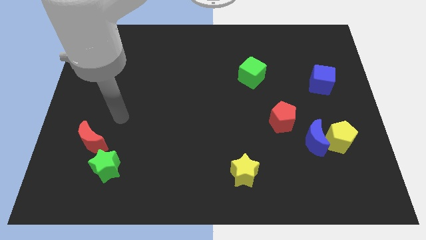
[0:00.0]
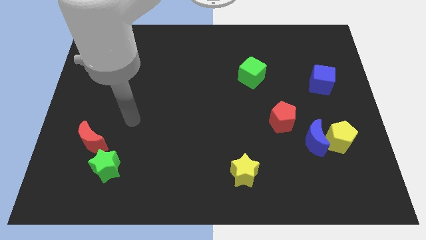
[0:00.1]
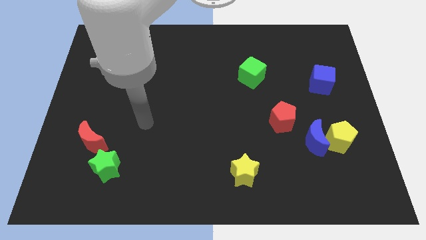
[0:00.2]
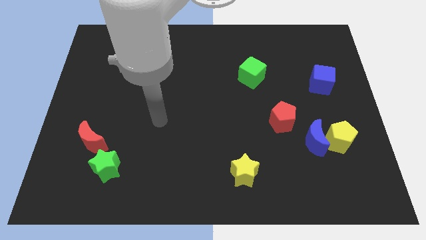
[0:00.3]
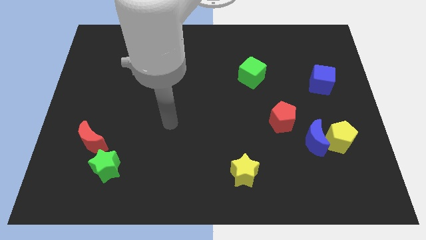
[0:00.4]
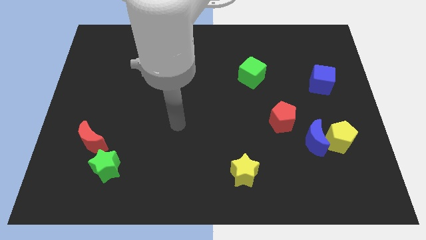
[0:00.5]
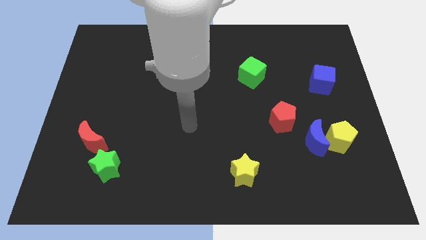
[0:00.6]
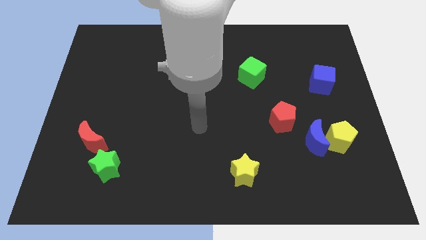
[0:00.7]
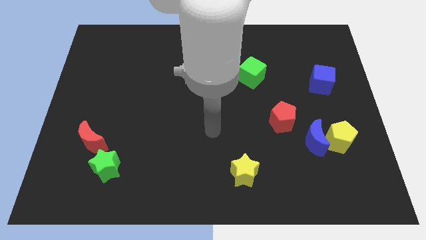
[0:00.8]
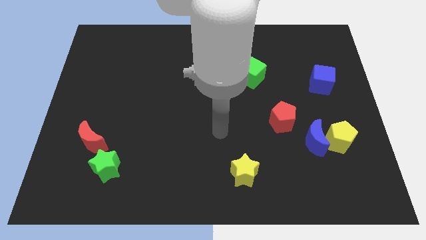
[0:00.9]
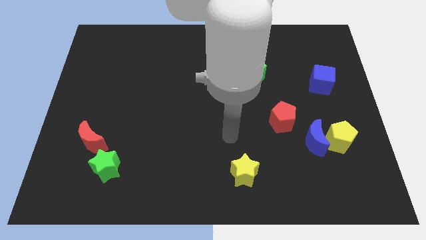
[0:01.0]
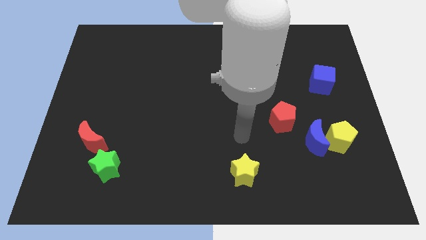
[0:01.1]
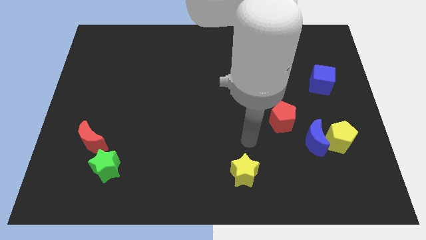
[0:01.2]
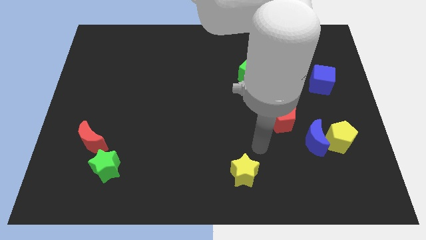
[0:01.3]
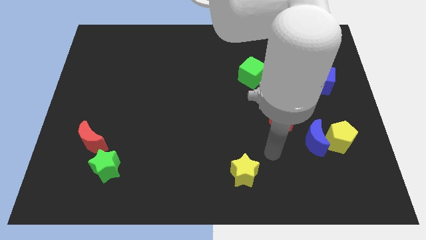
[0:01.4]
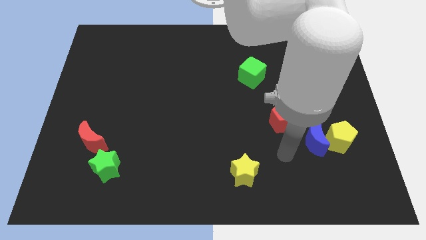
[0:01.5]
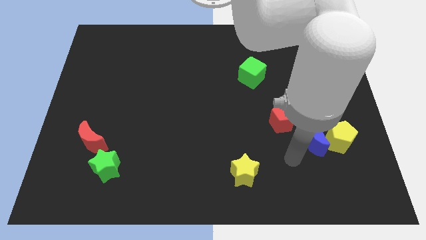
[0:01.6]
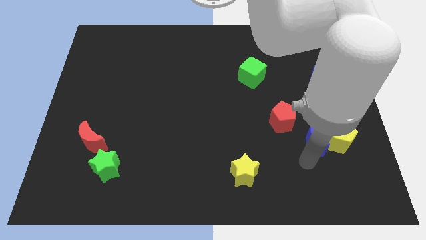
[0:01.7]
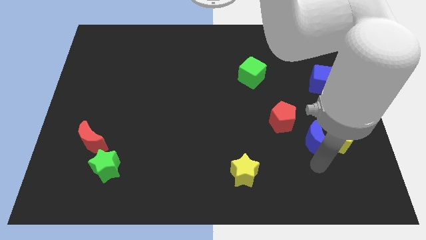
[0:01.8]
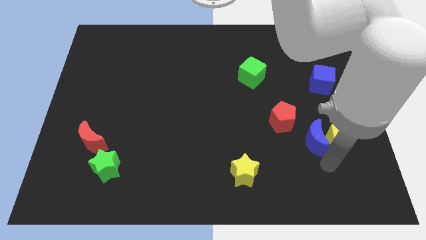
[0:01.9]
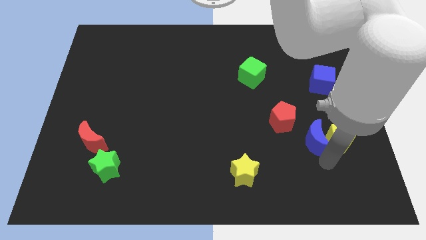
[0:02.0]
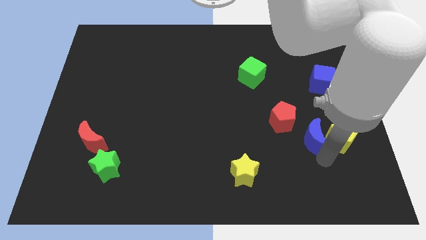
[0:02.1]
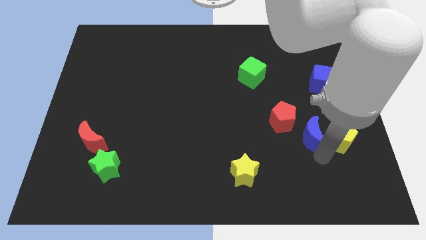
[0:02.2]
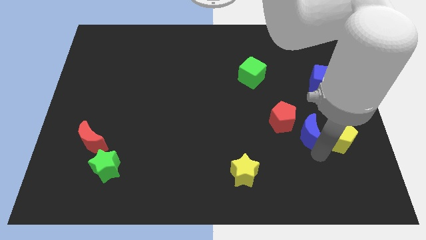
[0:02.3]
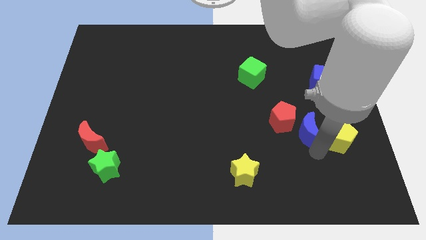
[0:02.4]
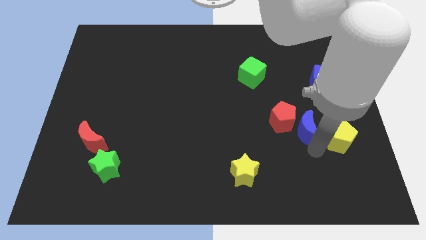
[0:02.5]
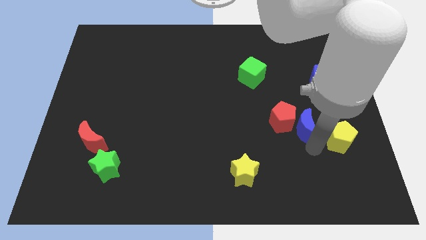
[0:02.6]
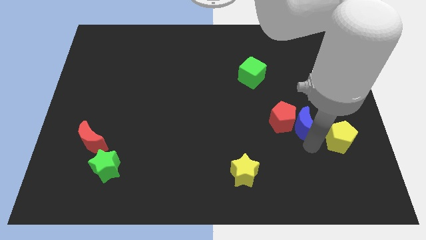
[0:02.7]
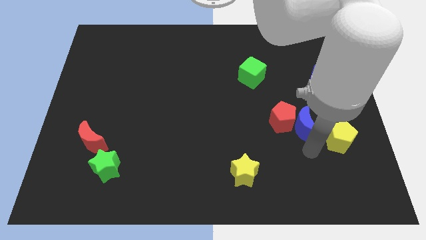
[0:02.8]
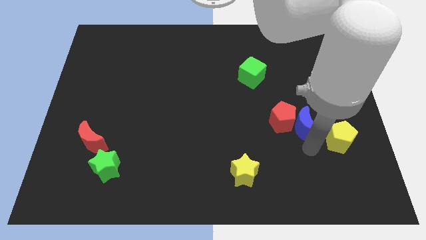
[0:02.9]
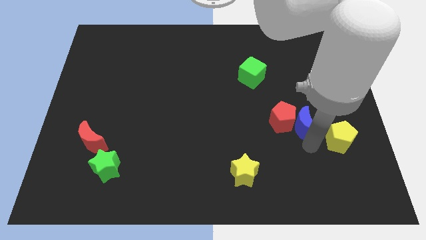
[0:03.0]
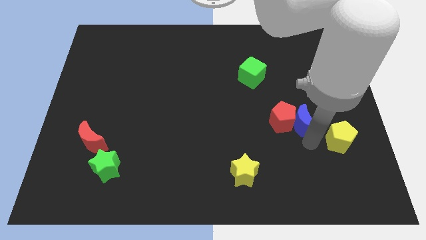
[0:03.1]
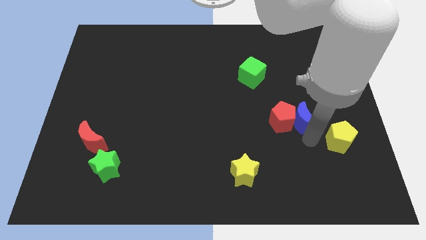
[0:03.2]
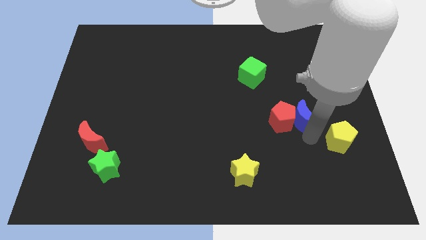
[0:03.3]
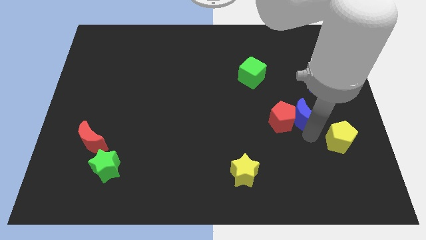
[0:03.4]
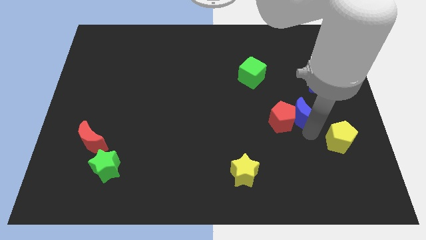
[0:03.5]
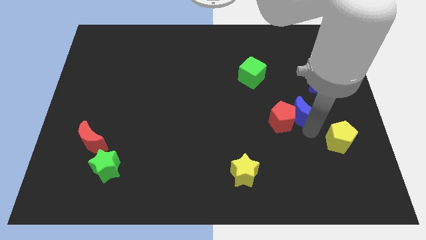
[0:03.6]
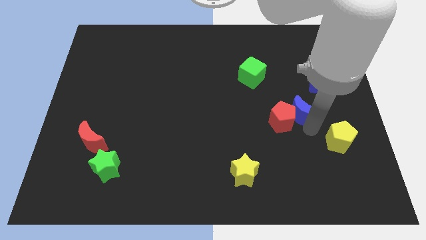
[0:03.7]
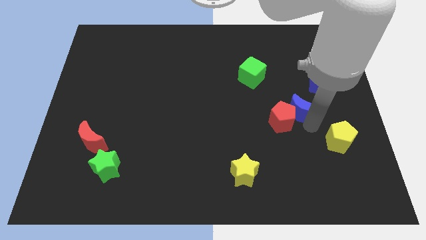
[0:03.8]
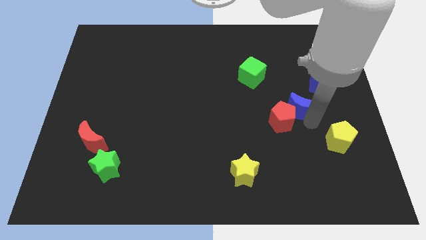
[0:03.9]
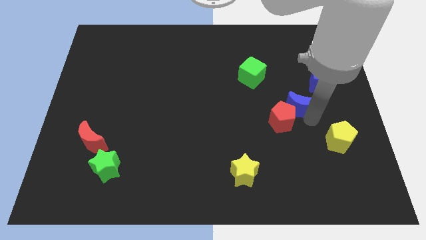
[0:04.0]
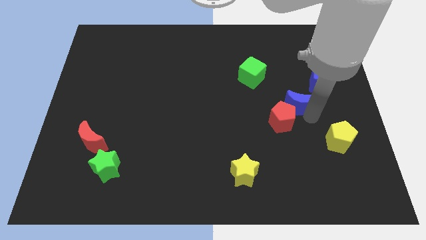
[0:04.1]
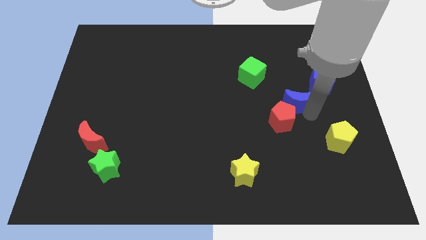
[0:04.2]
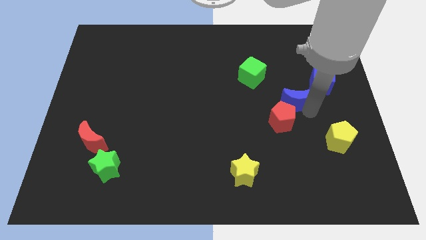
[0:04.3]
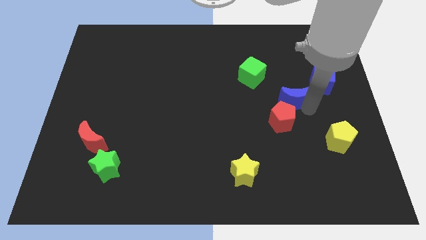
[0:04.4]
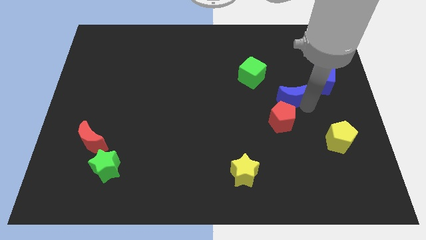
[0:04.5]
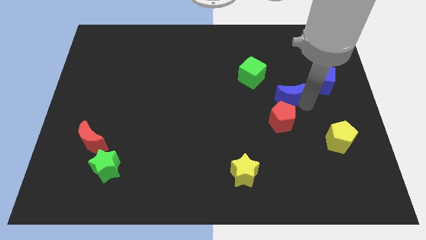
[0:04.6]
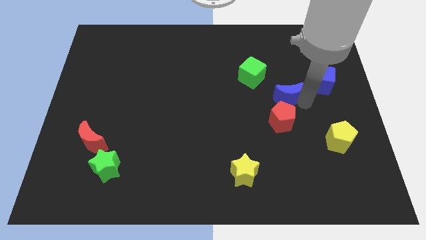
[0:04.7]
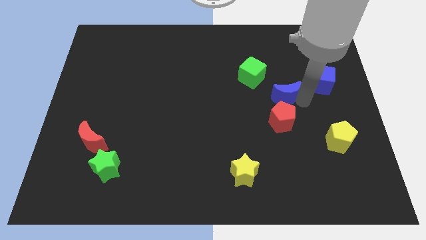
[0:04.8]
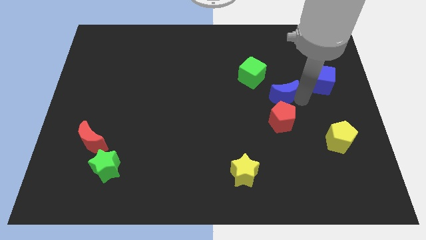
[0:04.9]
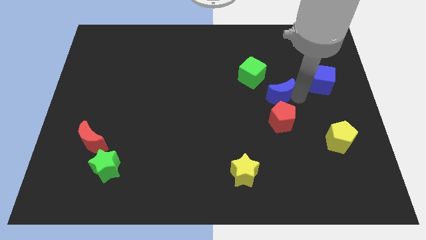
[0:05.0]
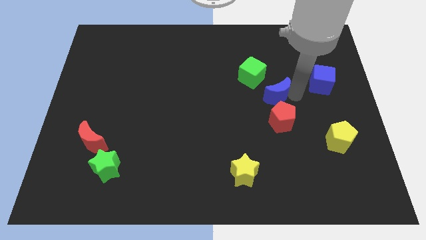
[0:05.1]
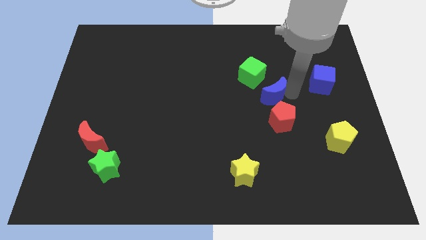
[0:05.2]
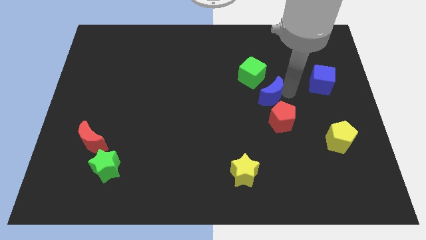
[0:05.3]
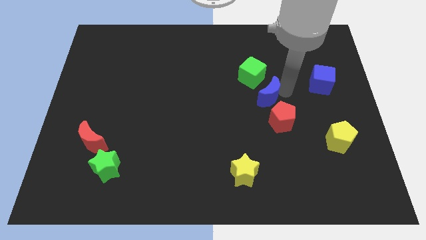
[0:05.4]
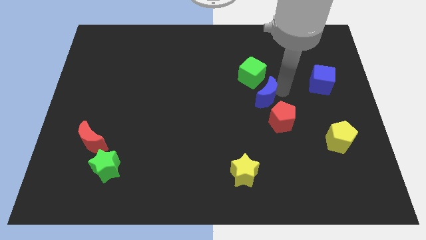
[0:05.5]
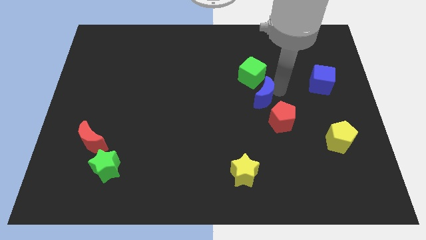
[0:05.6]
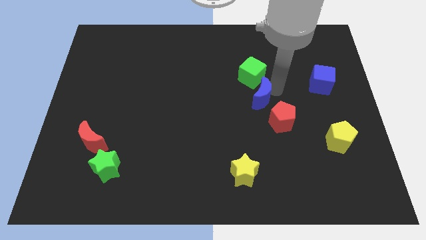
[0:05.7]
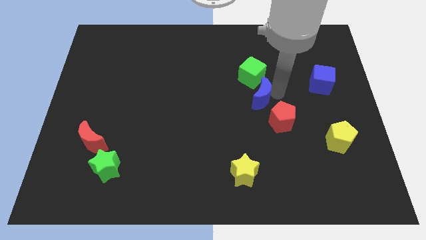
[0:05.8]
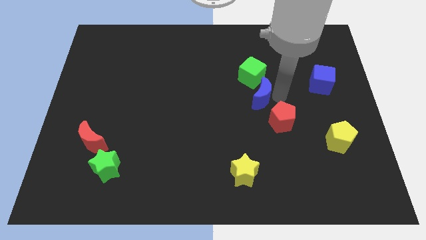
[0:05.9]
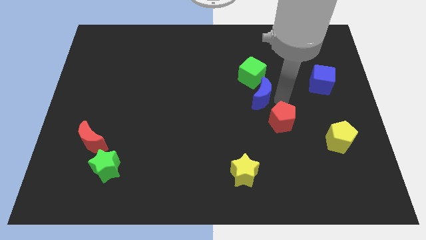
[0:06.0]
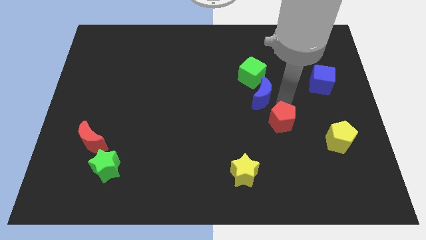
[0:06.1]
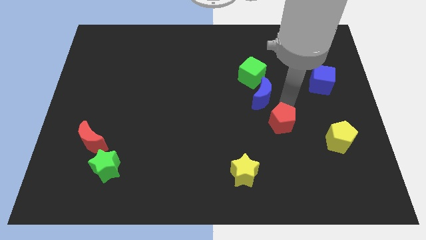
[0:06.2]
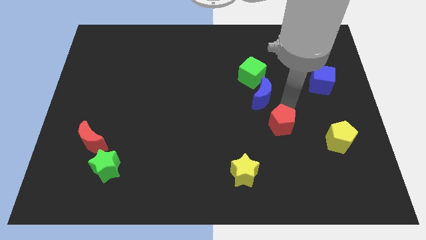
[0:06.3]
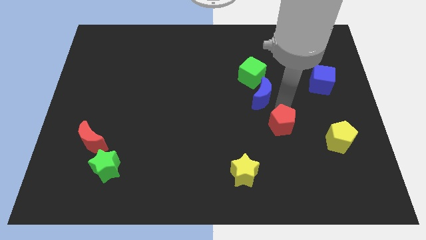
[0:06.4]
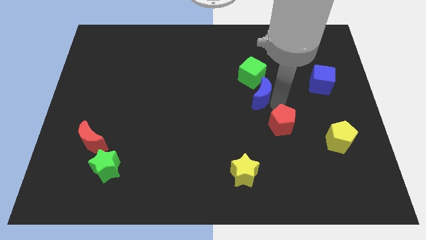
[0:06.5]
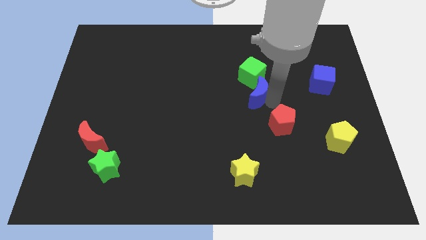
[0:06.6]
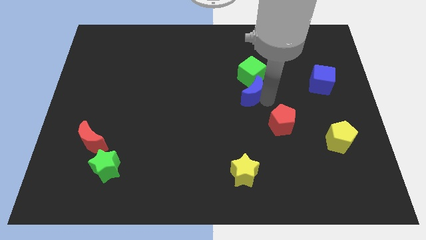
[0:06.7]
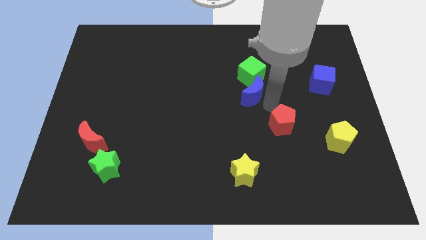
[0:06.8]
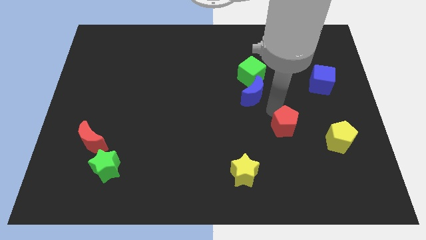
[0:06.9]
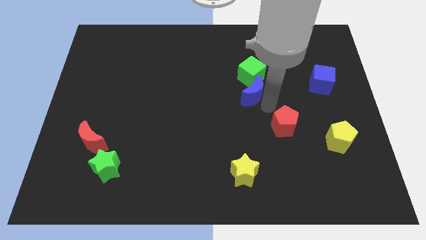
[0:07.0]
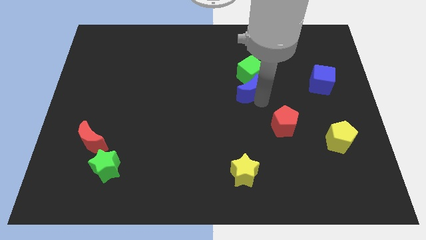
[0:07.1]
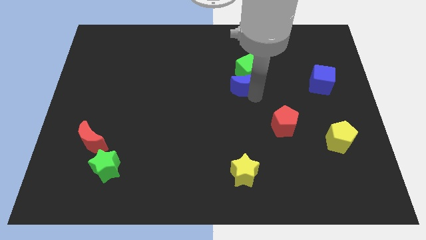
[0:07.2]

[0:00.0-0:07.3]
push the blue moon upwards and left

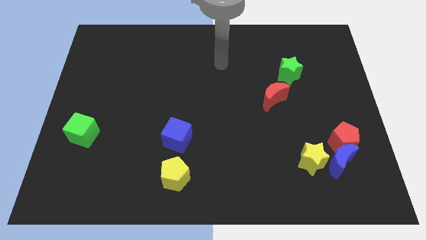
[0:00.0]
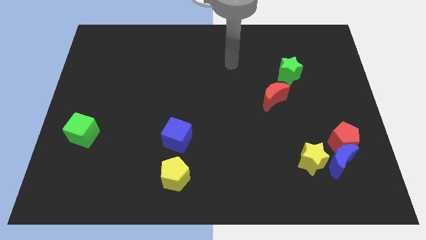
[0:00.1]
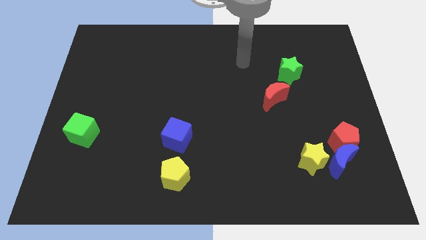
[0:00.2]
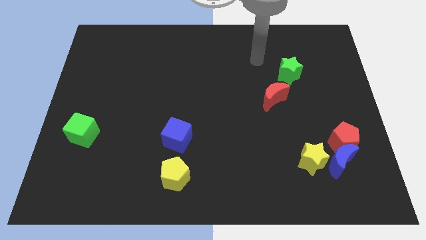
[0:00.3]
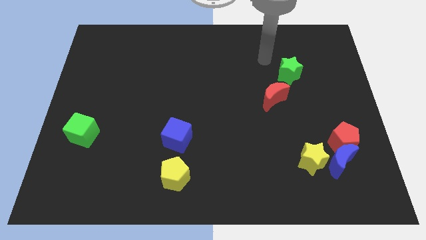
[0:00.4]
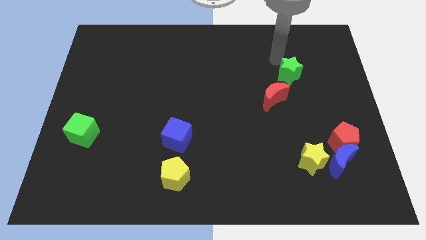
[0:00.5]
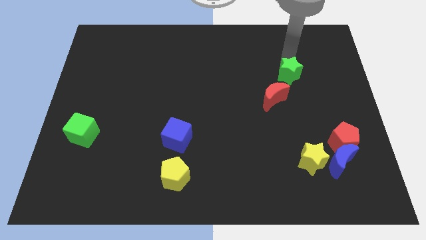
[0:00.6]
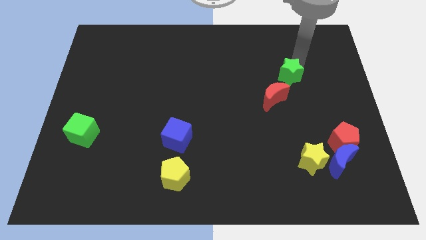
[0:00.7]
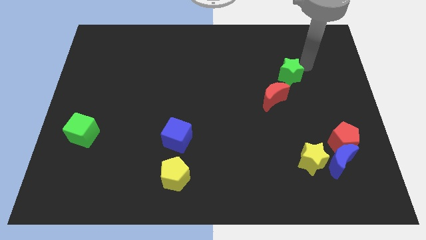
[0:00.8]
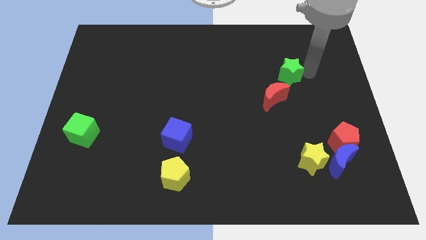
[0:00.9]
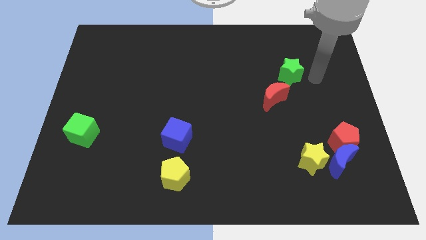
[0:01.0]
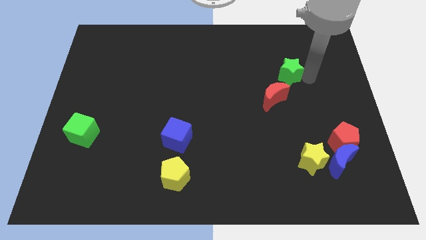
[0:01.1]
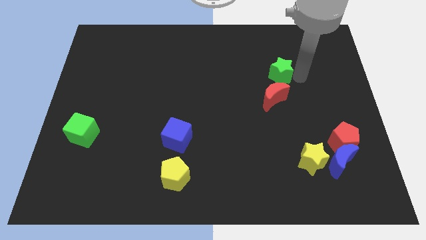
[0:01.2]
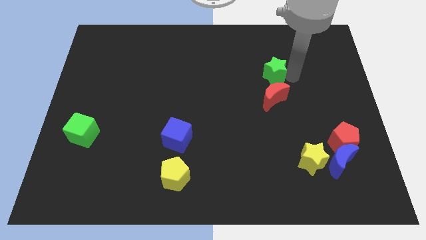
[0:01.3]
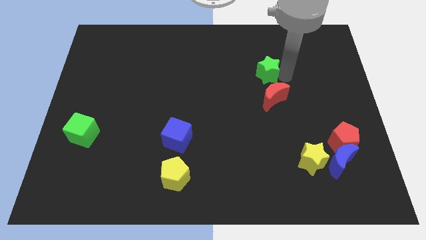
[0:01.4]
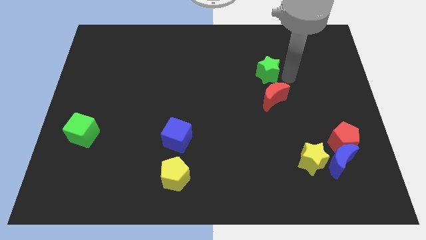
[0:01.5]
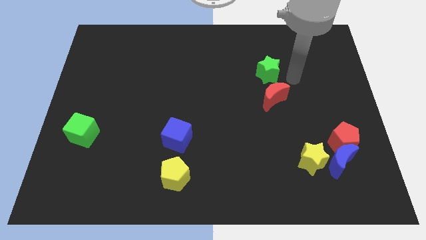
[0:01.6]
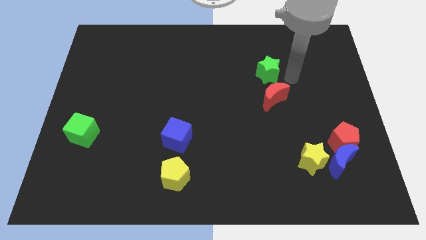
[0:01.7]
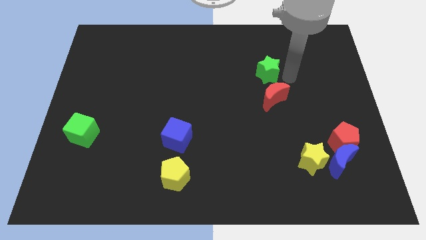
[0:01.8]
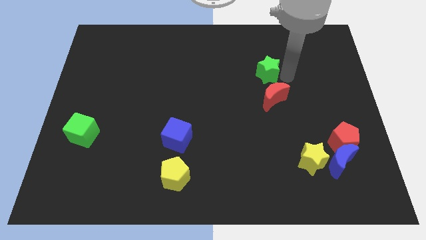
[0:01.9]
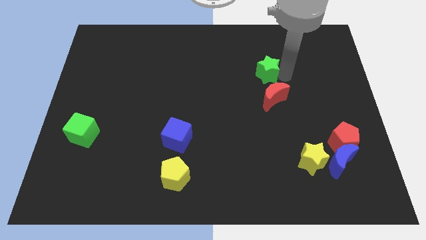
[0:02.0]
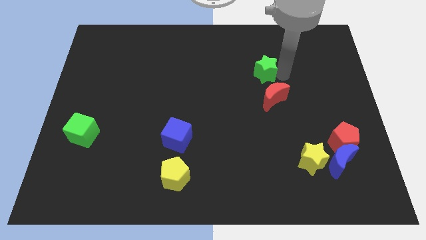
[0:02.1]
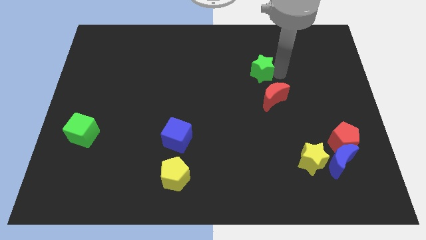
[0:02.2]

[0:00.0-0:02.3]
push the green star a little bit left
